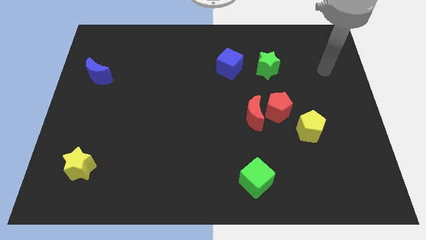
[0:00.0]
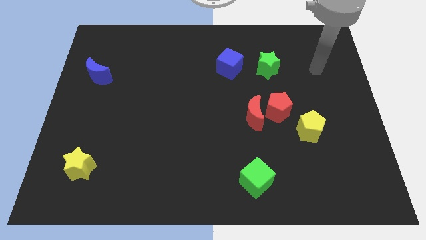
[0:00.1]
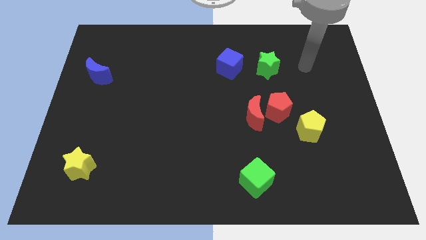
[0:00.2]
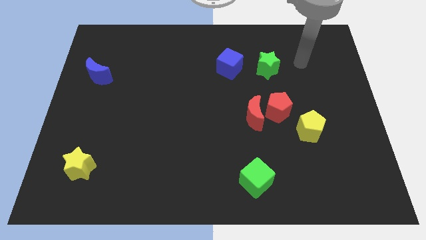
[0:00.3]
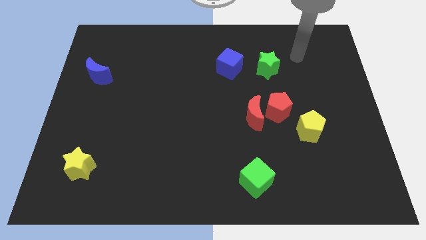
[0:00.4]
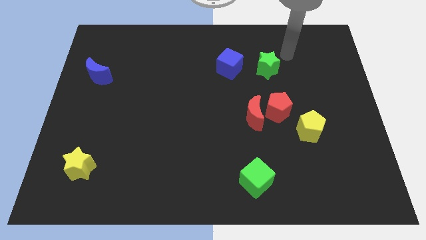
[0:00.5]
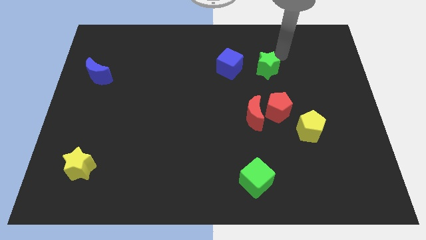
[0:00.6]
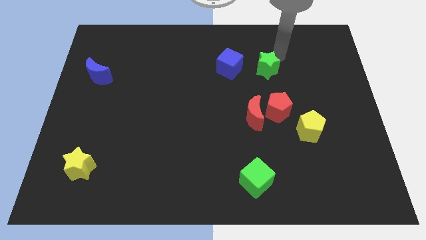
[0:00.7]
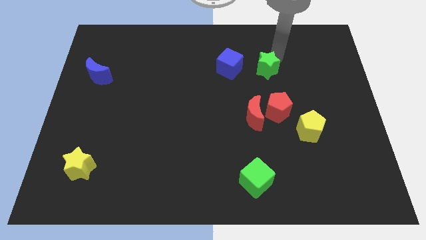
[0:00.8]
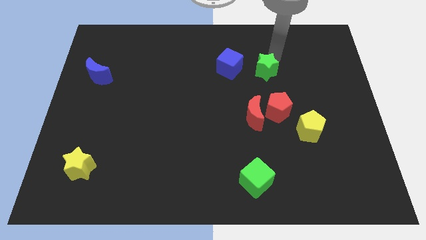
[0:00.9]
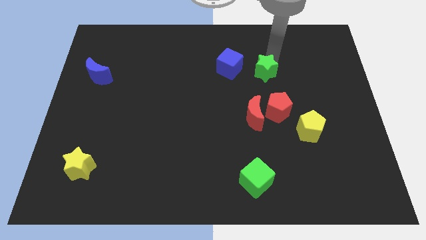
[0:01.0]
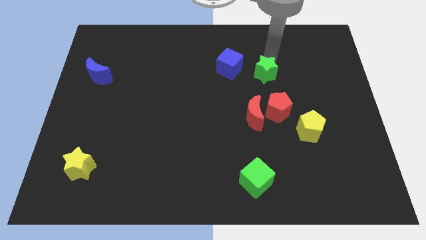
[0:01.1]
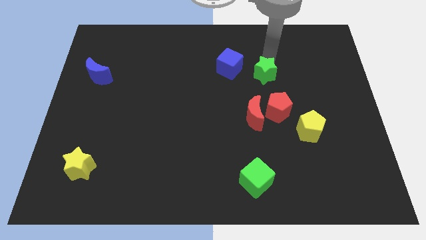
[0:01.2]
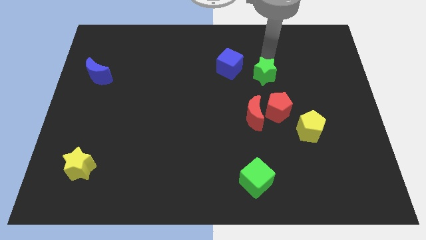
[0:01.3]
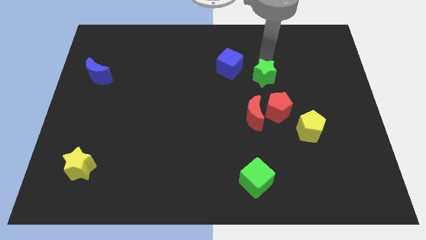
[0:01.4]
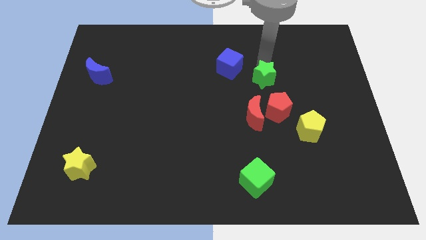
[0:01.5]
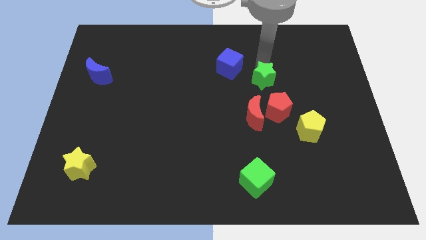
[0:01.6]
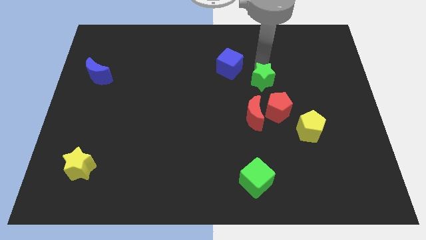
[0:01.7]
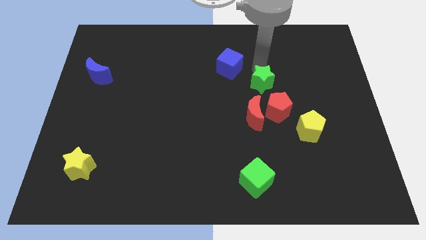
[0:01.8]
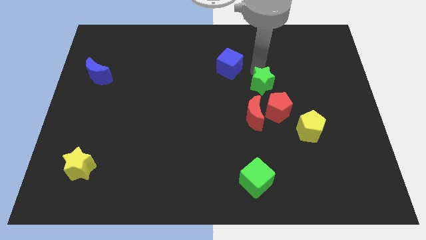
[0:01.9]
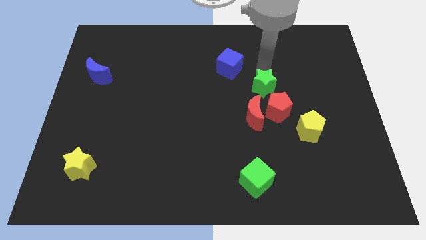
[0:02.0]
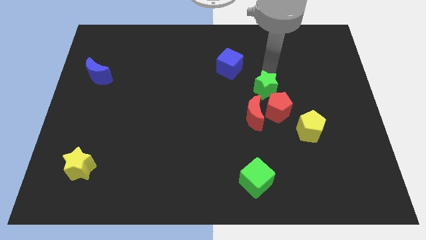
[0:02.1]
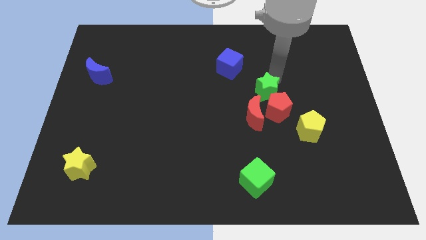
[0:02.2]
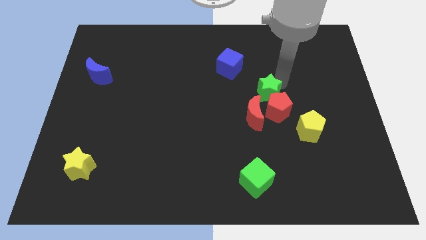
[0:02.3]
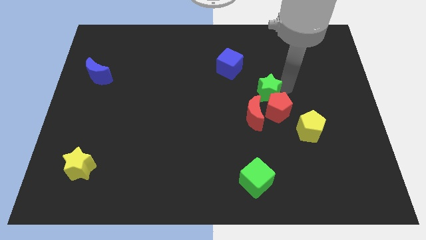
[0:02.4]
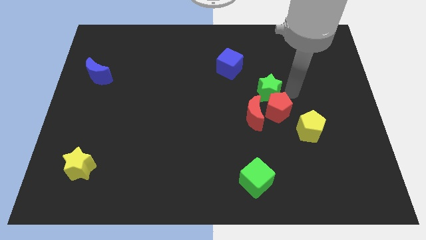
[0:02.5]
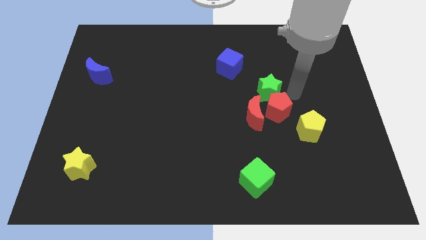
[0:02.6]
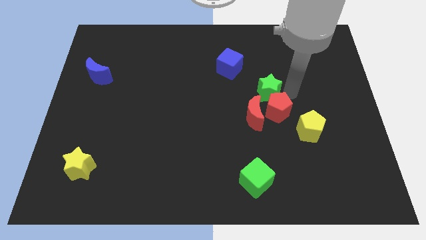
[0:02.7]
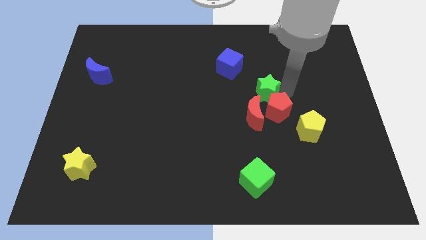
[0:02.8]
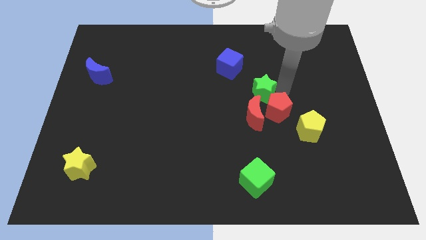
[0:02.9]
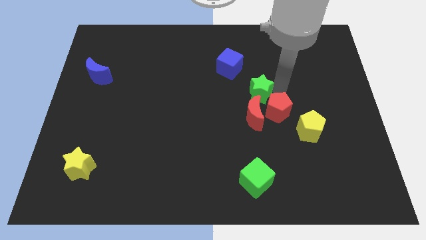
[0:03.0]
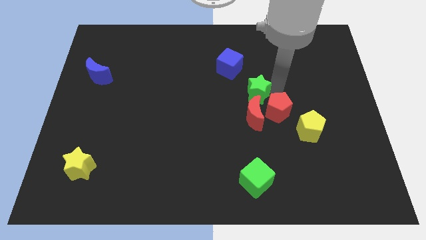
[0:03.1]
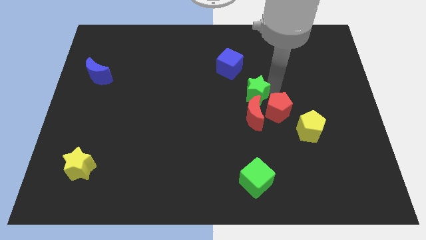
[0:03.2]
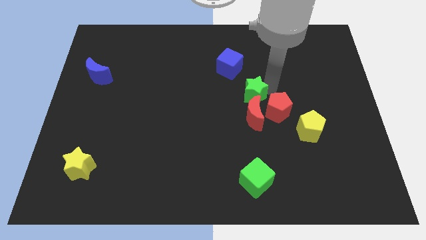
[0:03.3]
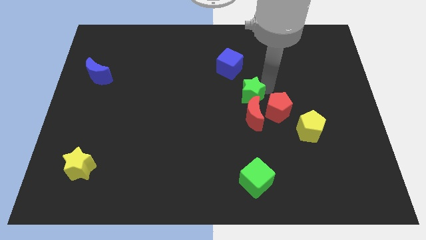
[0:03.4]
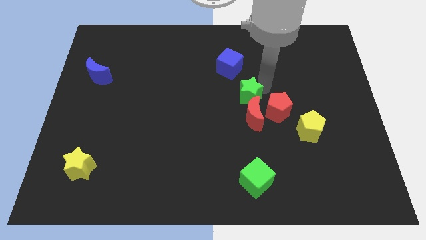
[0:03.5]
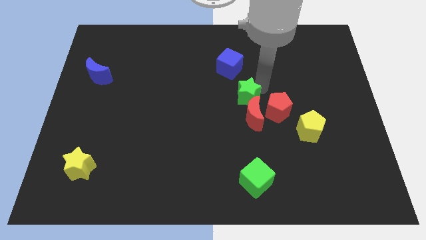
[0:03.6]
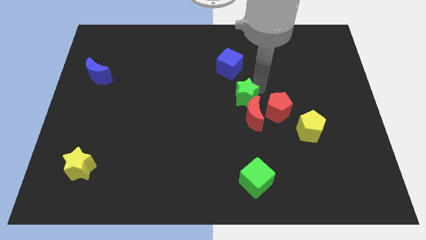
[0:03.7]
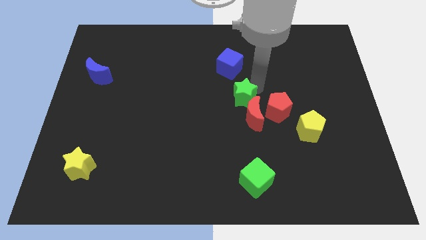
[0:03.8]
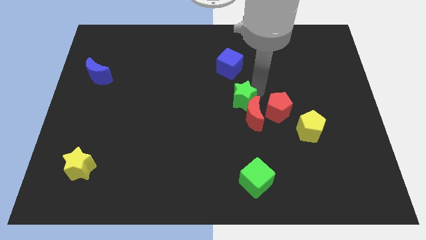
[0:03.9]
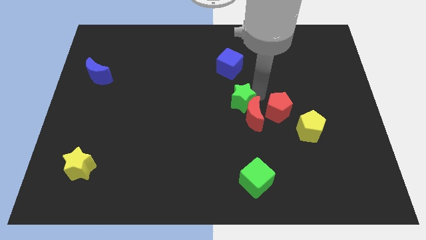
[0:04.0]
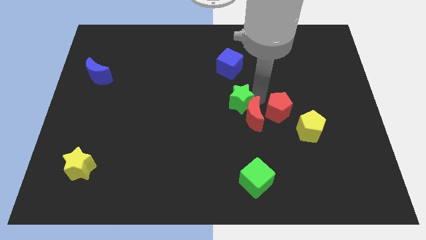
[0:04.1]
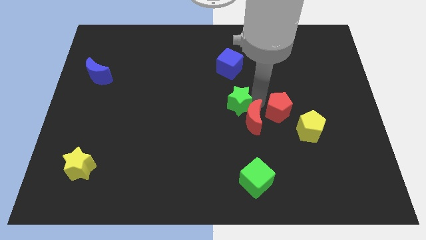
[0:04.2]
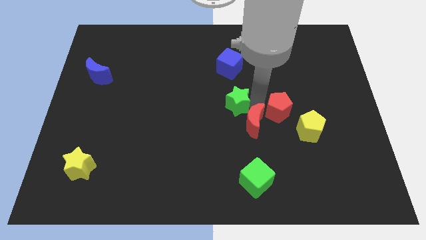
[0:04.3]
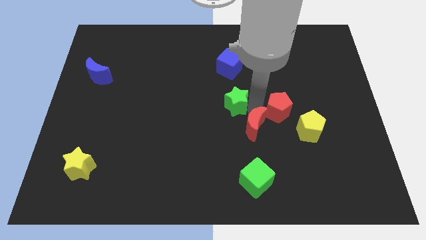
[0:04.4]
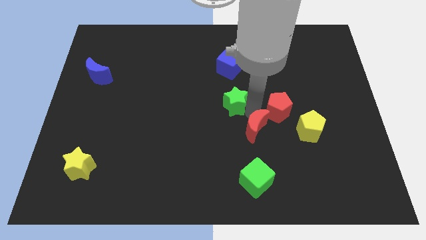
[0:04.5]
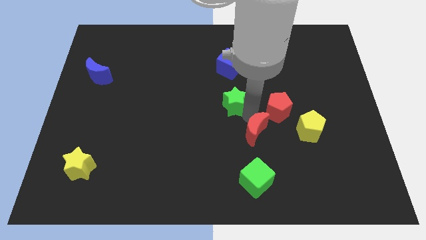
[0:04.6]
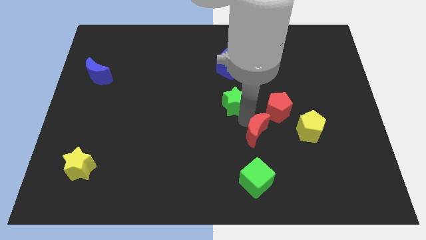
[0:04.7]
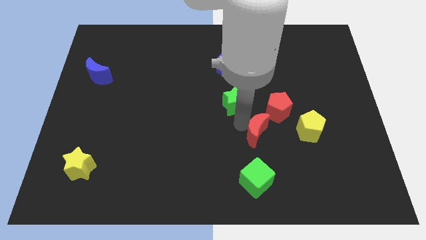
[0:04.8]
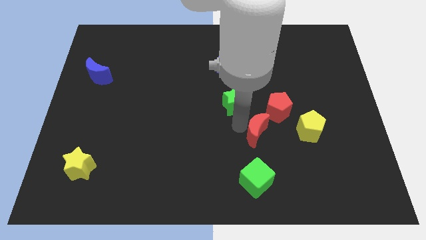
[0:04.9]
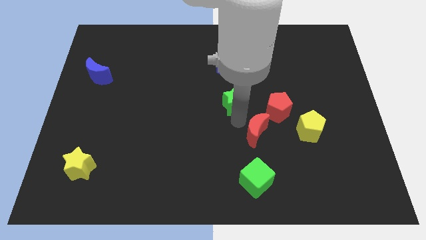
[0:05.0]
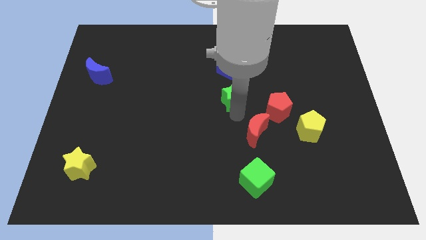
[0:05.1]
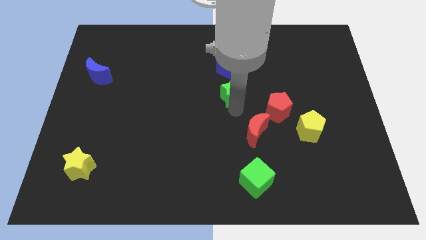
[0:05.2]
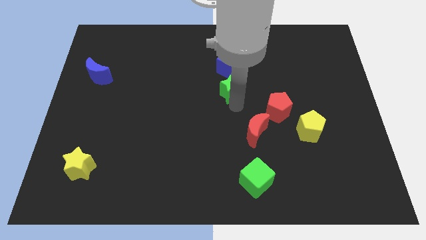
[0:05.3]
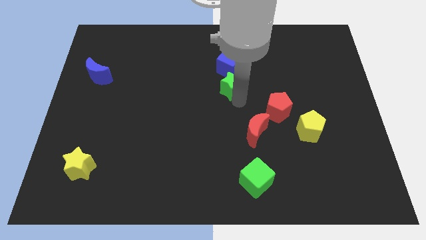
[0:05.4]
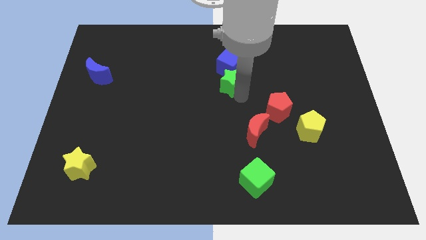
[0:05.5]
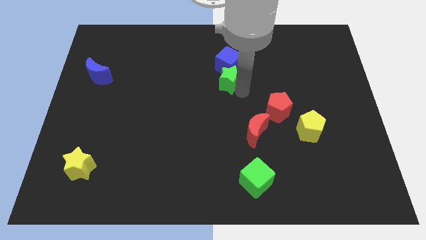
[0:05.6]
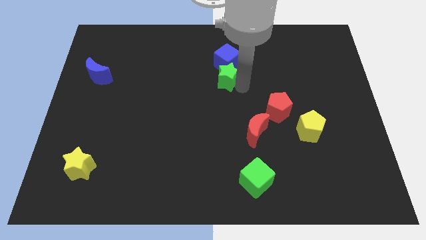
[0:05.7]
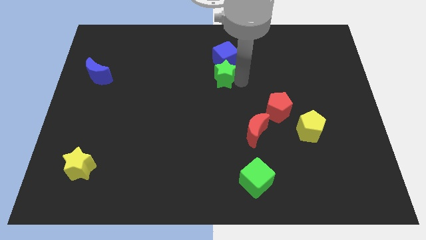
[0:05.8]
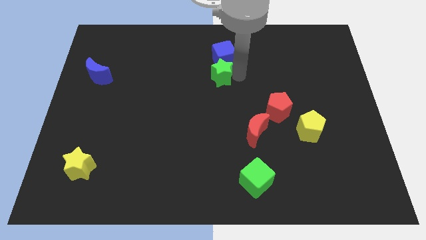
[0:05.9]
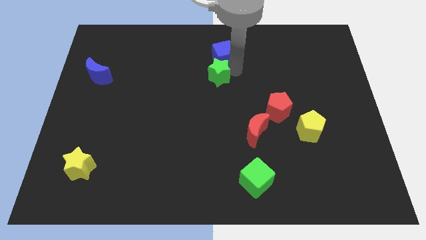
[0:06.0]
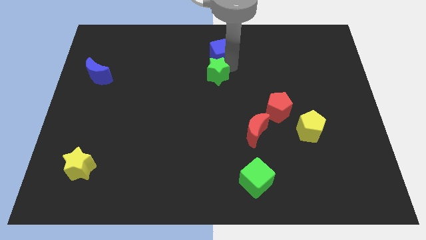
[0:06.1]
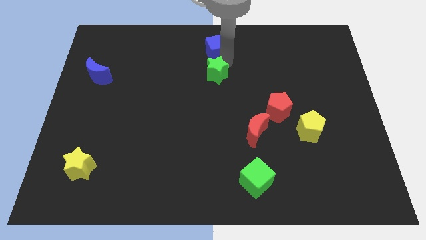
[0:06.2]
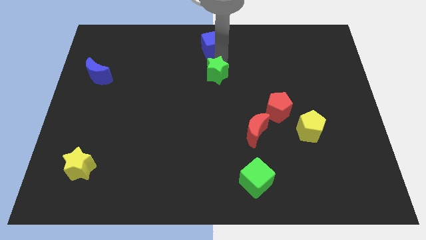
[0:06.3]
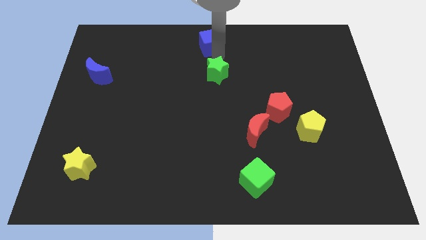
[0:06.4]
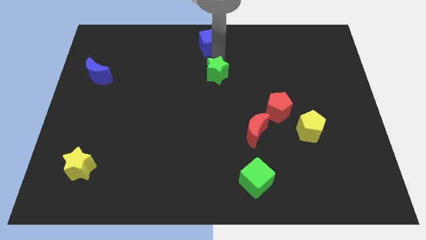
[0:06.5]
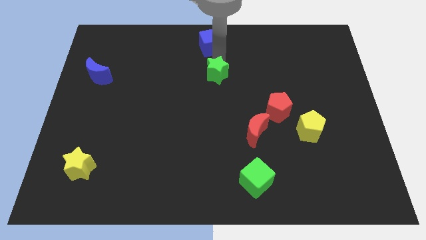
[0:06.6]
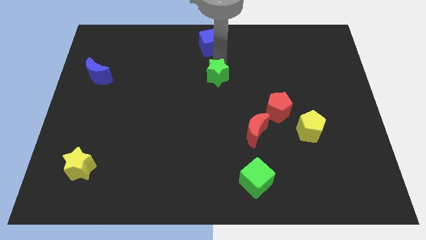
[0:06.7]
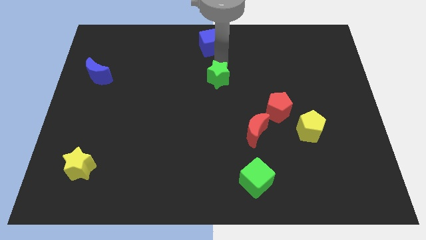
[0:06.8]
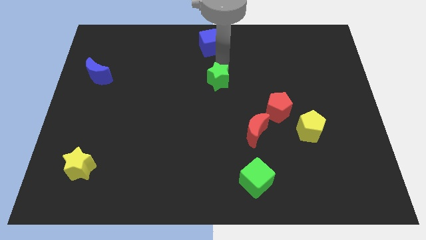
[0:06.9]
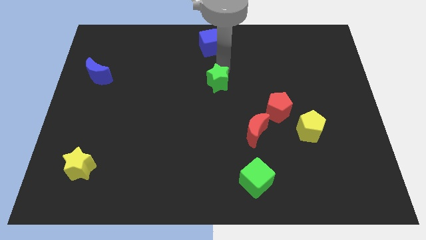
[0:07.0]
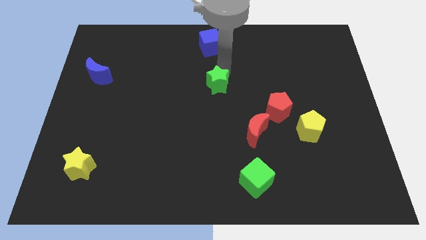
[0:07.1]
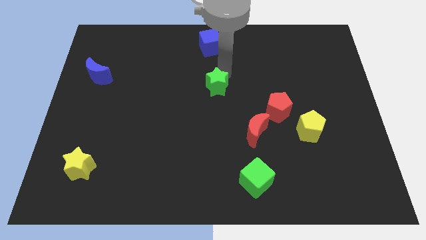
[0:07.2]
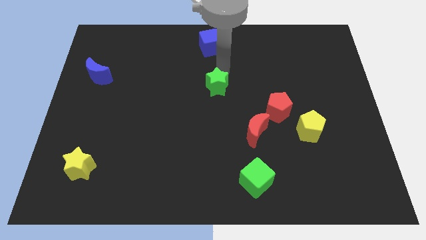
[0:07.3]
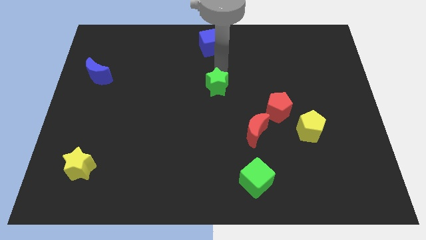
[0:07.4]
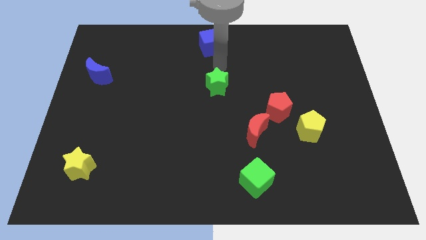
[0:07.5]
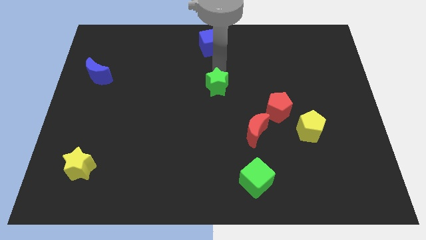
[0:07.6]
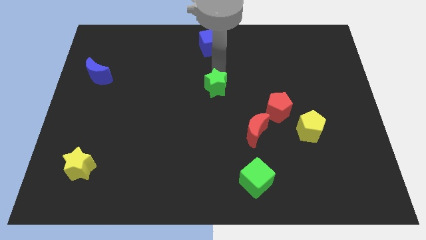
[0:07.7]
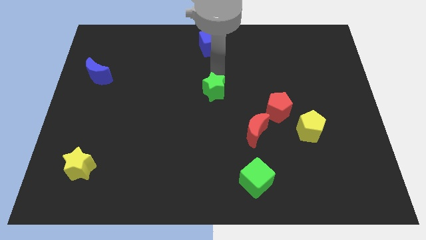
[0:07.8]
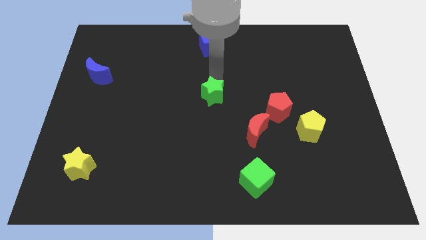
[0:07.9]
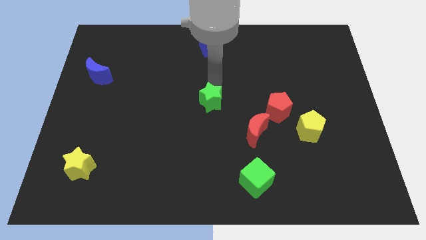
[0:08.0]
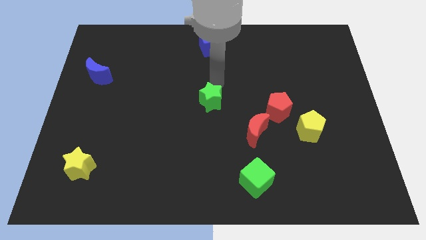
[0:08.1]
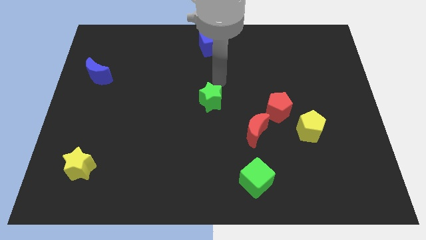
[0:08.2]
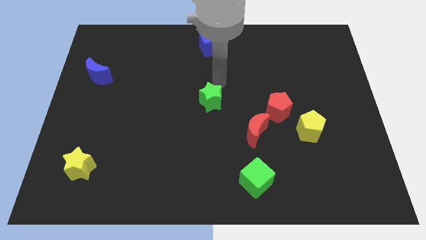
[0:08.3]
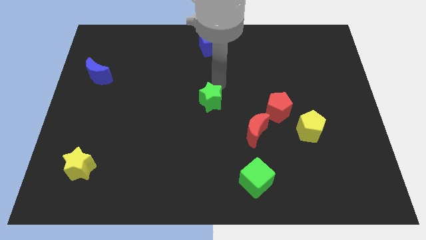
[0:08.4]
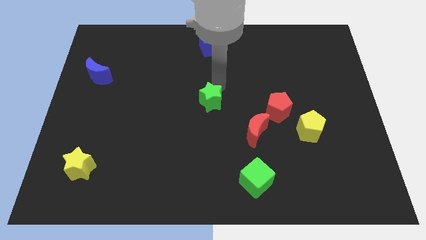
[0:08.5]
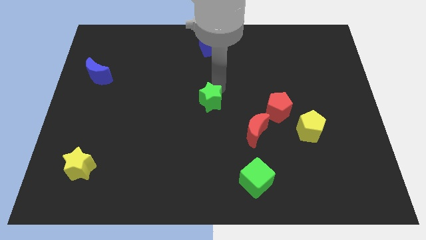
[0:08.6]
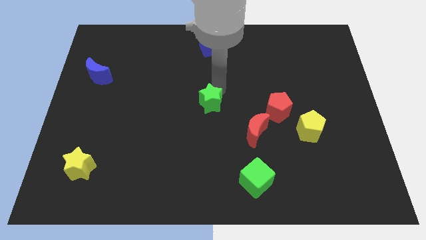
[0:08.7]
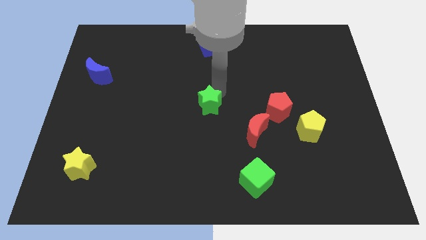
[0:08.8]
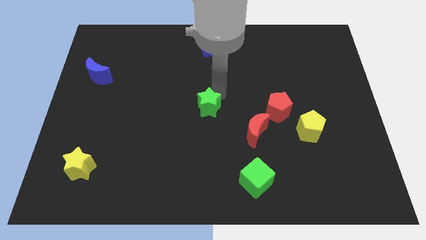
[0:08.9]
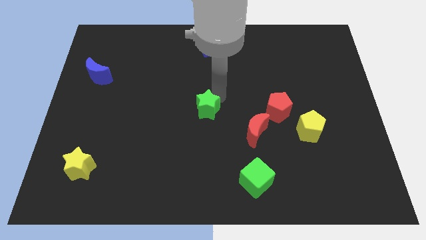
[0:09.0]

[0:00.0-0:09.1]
move the green star downwards and left diagonally
